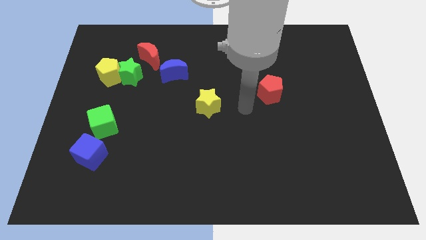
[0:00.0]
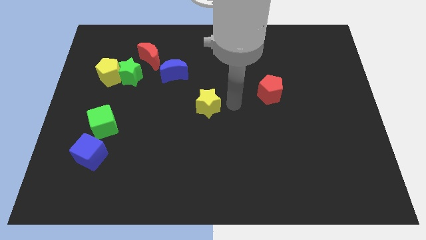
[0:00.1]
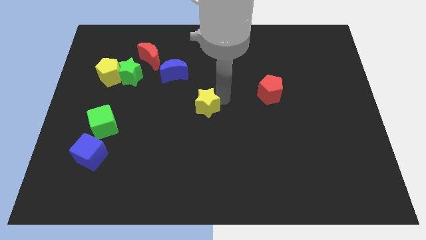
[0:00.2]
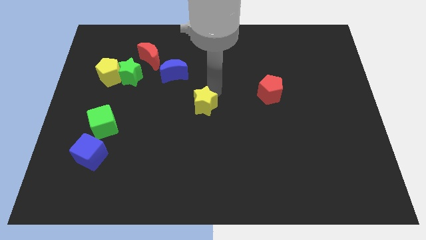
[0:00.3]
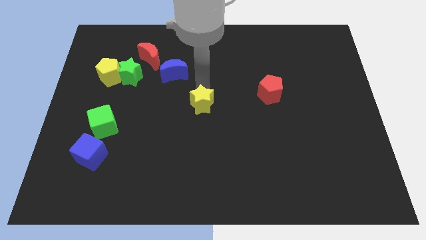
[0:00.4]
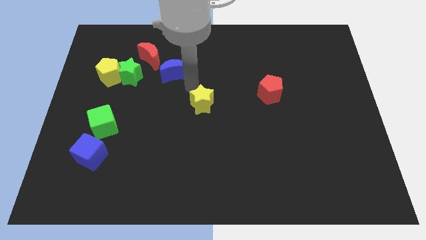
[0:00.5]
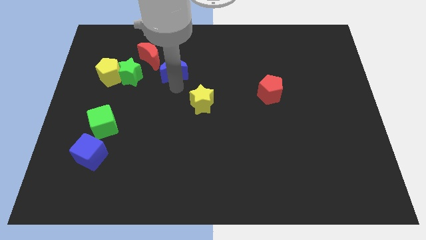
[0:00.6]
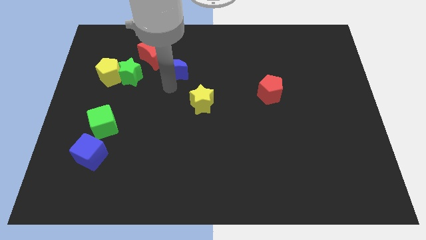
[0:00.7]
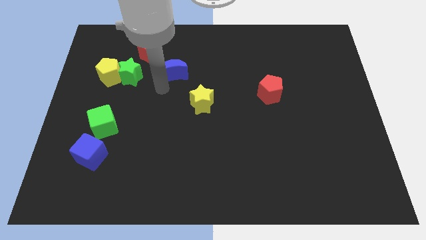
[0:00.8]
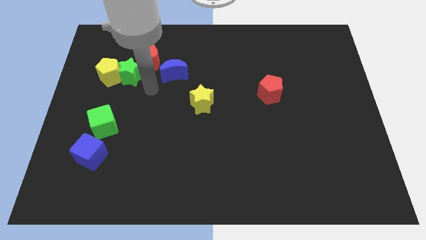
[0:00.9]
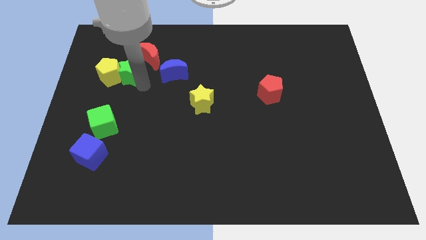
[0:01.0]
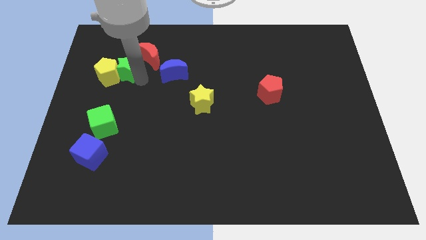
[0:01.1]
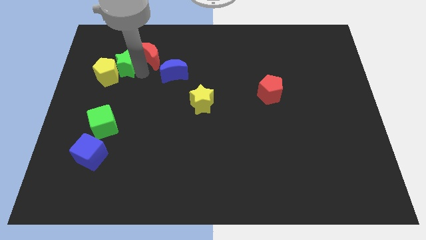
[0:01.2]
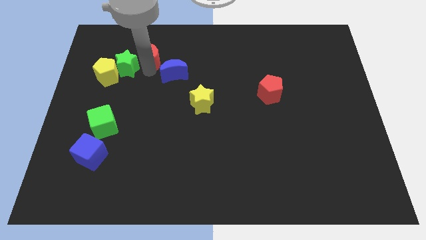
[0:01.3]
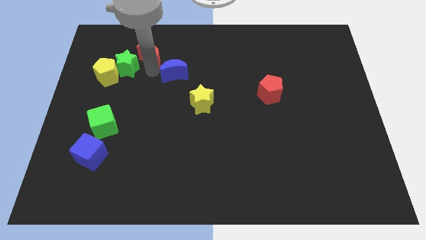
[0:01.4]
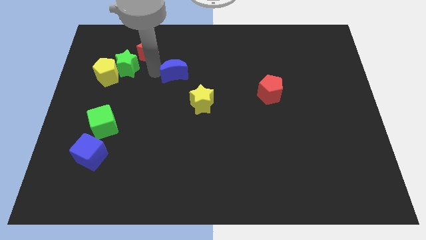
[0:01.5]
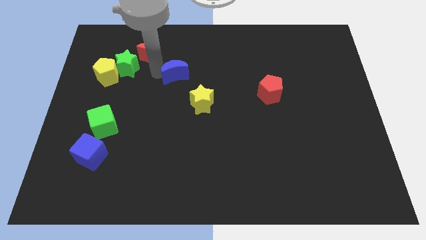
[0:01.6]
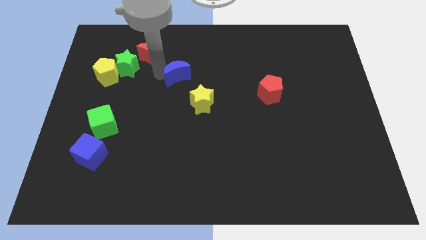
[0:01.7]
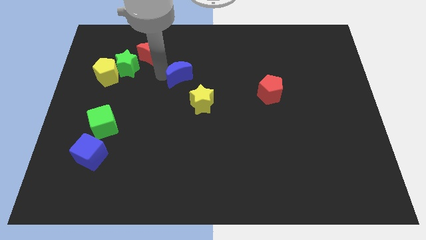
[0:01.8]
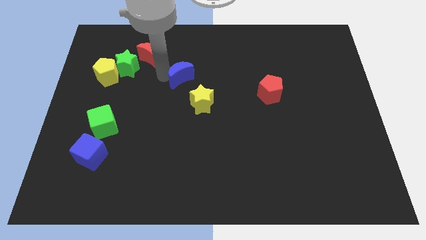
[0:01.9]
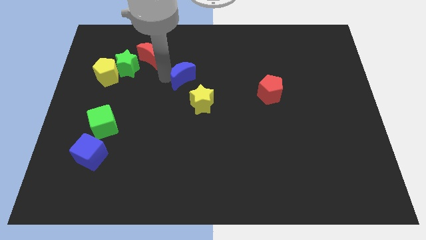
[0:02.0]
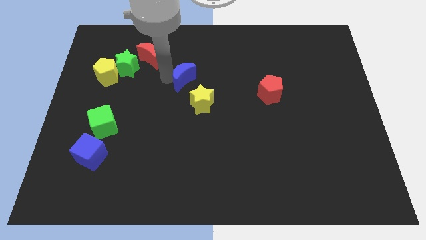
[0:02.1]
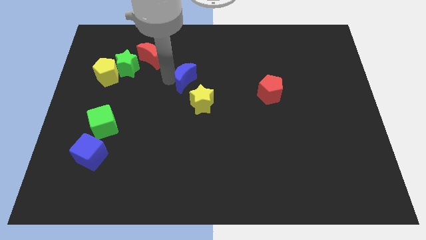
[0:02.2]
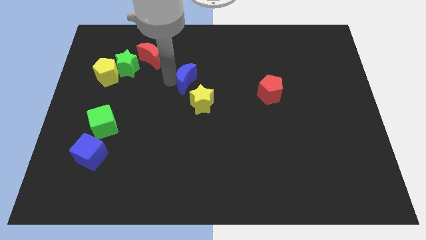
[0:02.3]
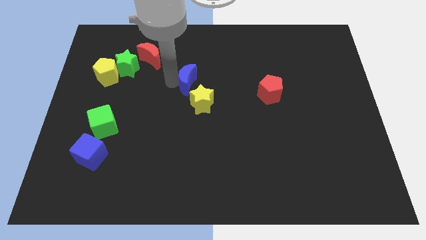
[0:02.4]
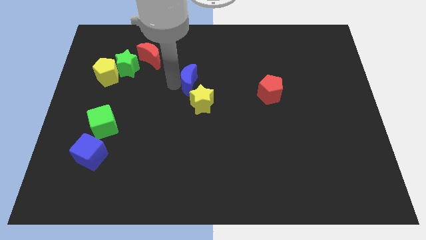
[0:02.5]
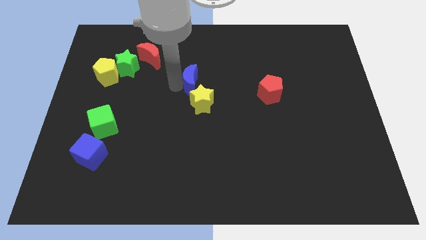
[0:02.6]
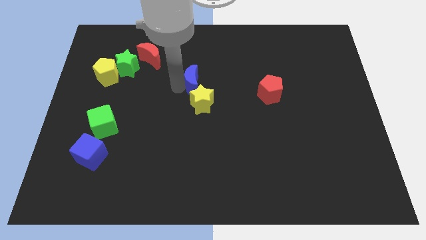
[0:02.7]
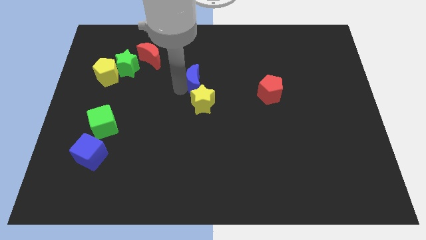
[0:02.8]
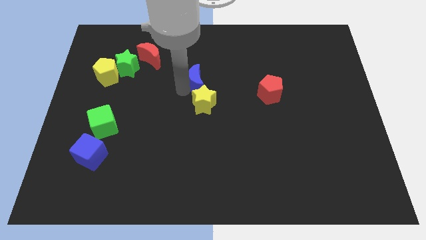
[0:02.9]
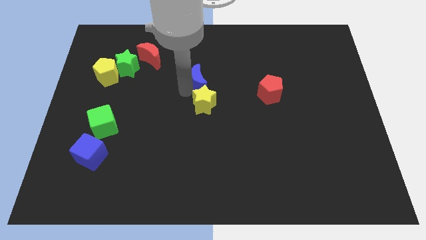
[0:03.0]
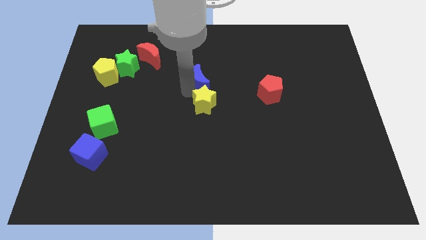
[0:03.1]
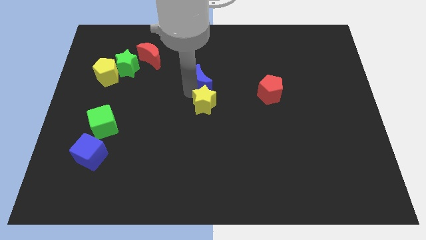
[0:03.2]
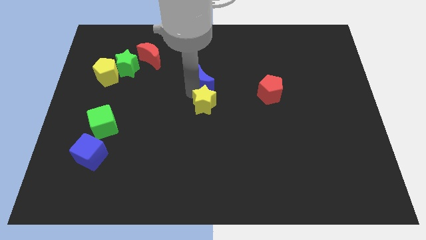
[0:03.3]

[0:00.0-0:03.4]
move the blue moon right slightly

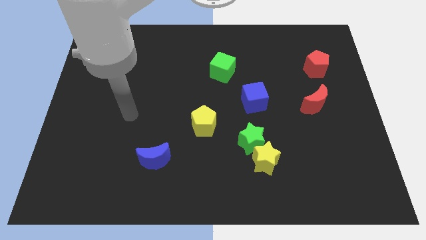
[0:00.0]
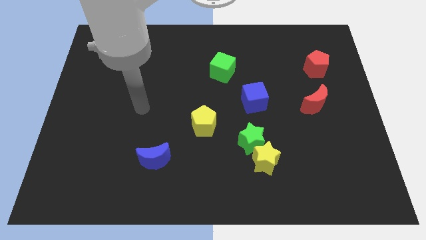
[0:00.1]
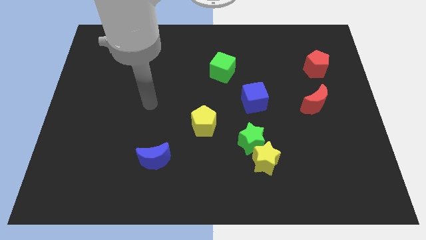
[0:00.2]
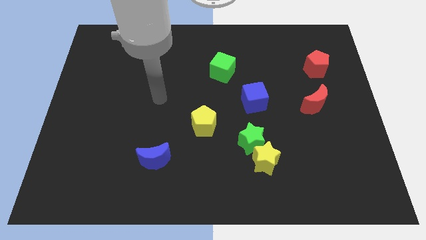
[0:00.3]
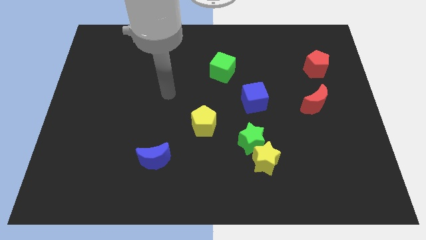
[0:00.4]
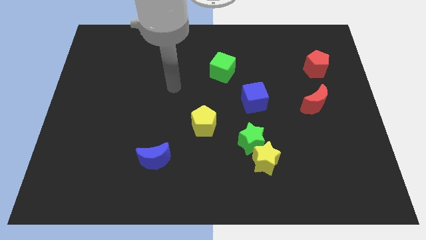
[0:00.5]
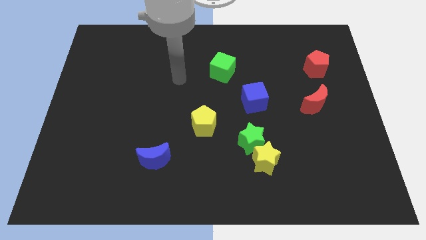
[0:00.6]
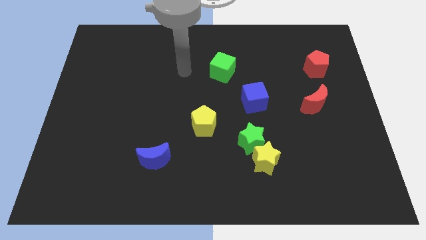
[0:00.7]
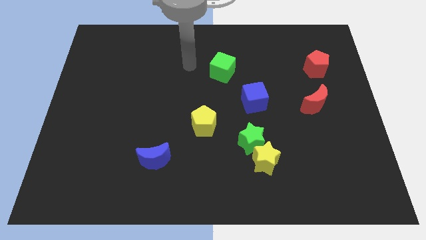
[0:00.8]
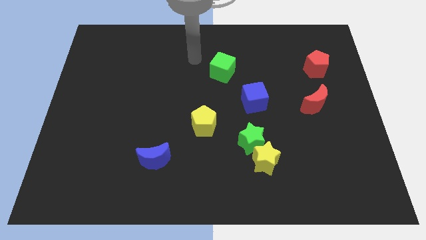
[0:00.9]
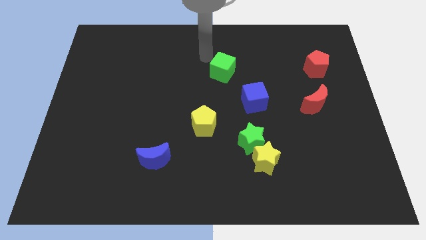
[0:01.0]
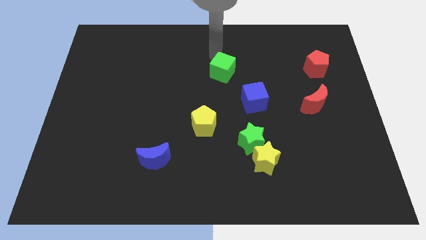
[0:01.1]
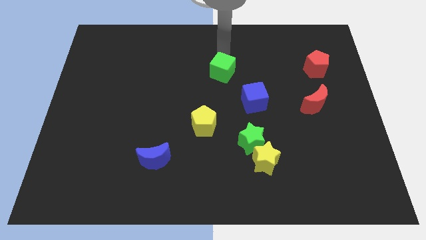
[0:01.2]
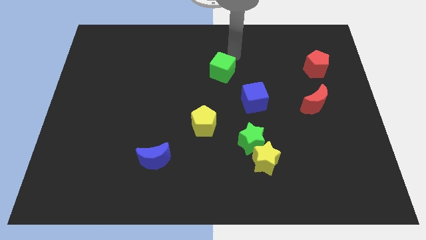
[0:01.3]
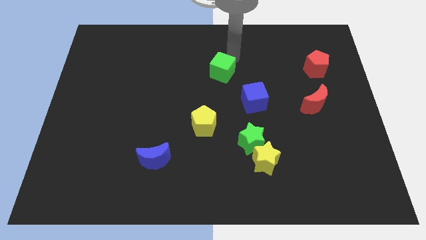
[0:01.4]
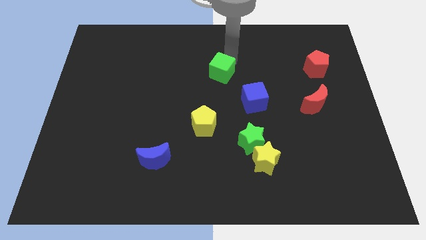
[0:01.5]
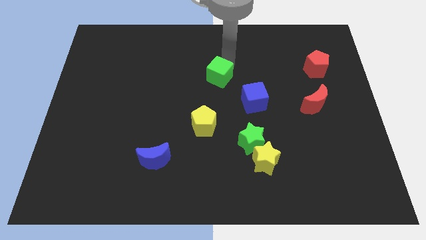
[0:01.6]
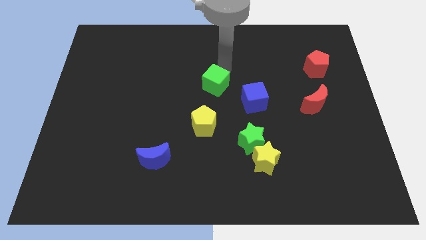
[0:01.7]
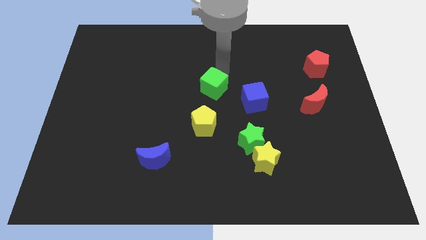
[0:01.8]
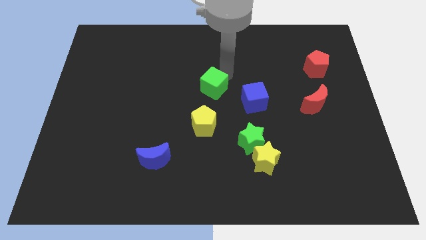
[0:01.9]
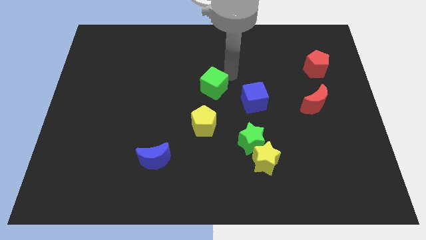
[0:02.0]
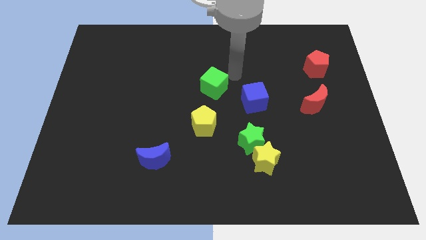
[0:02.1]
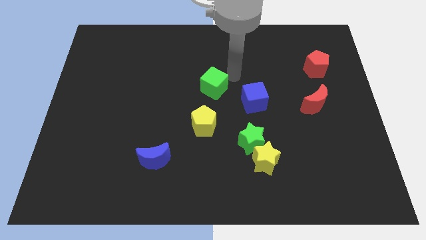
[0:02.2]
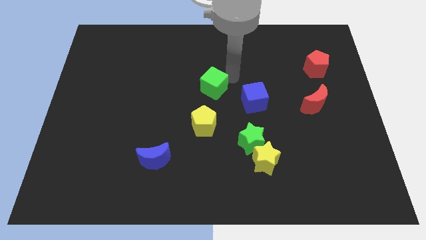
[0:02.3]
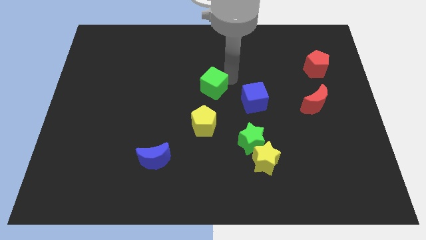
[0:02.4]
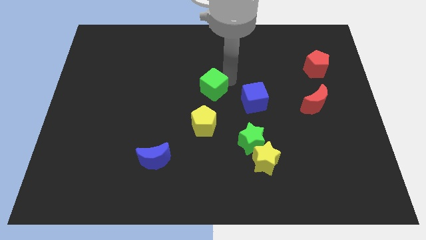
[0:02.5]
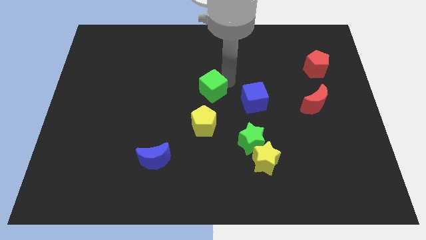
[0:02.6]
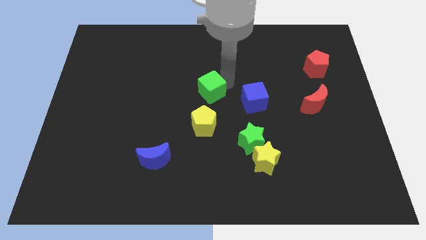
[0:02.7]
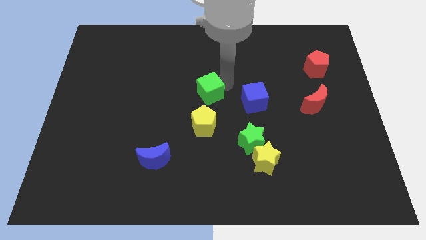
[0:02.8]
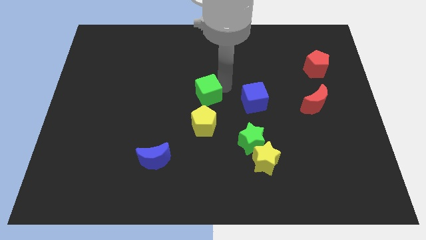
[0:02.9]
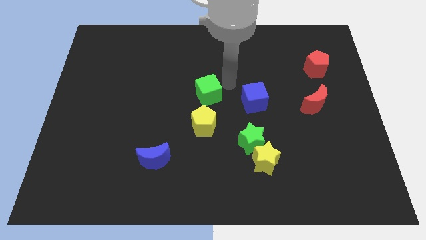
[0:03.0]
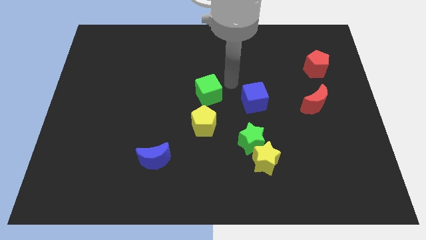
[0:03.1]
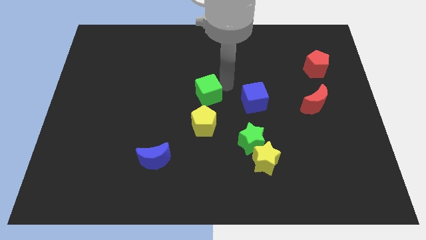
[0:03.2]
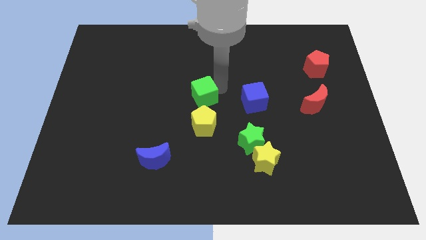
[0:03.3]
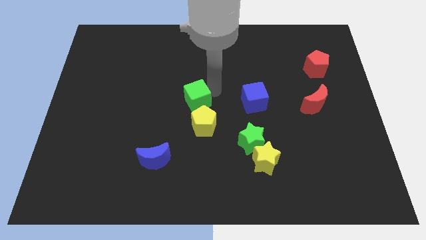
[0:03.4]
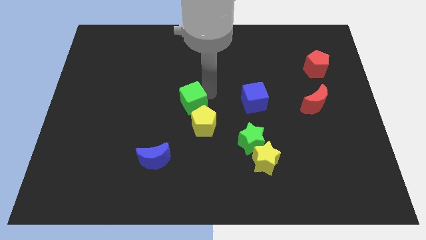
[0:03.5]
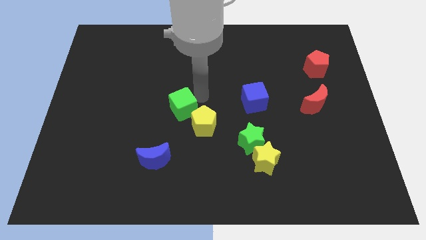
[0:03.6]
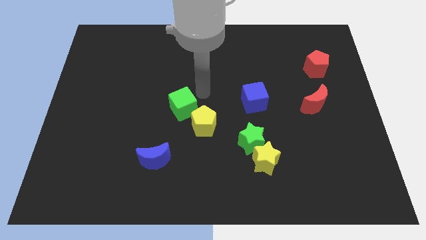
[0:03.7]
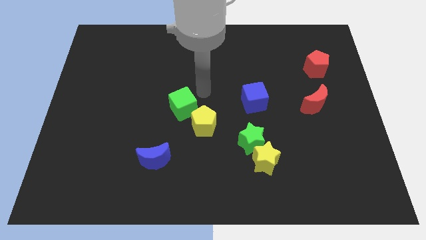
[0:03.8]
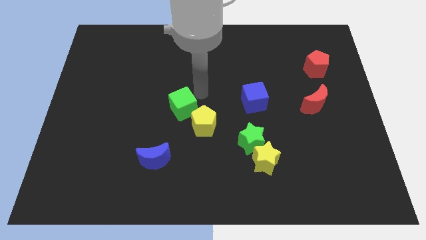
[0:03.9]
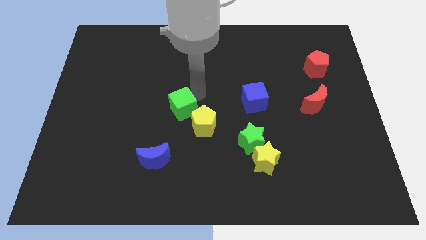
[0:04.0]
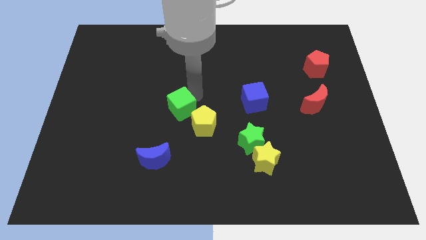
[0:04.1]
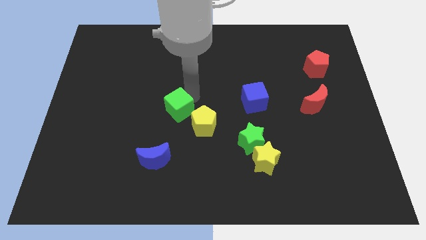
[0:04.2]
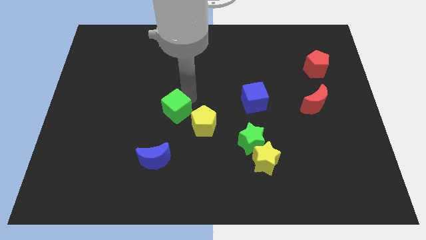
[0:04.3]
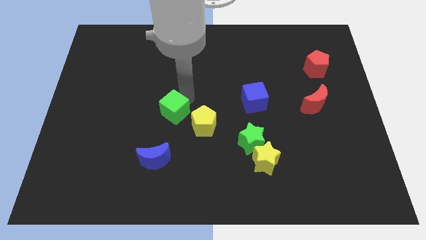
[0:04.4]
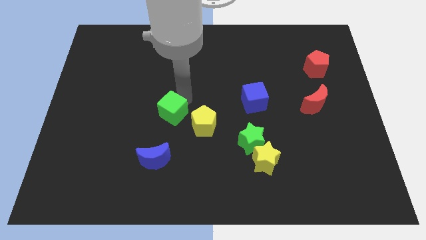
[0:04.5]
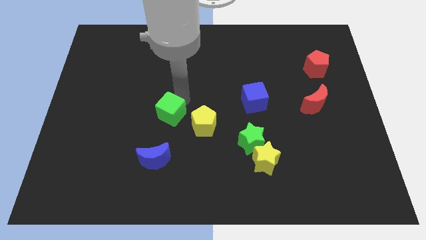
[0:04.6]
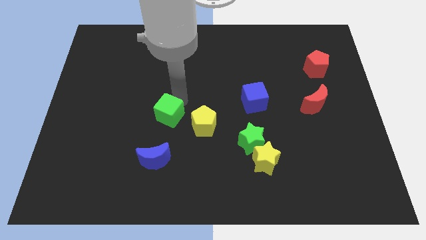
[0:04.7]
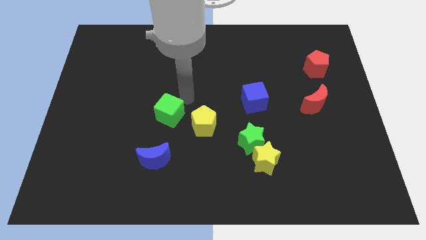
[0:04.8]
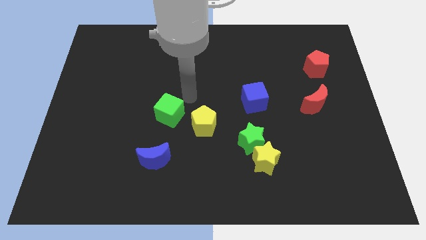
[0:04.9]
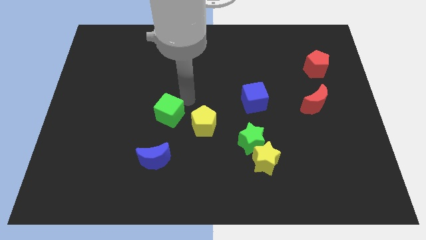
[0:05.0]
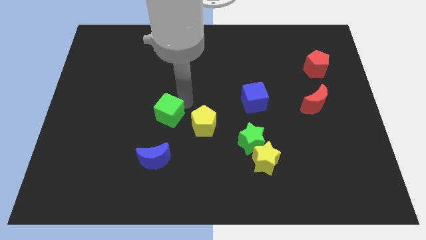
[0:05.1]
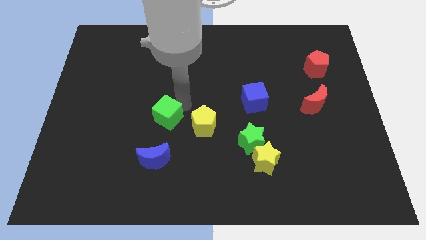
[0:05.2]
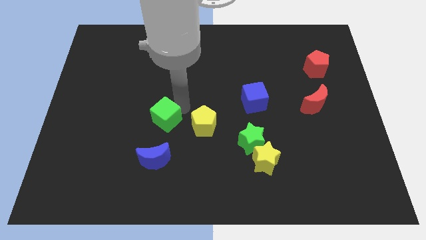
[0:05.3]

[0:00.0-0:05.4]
move the green cube downwards and to the left
